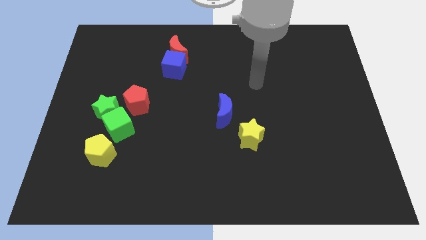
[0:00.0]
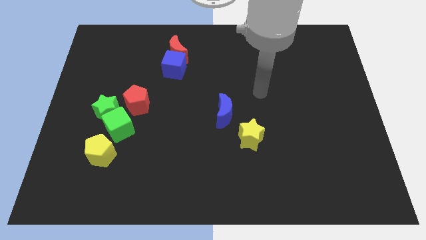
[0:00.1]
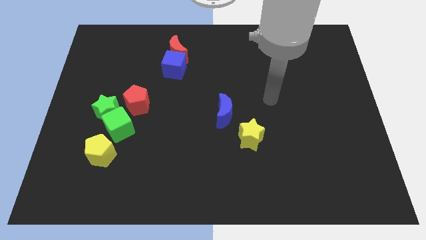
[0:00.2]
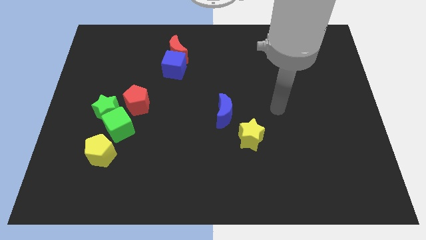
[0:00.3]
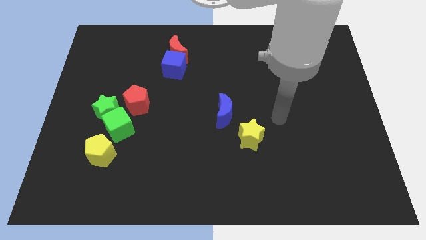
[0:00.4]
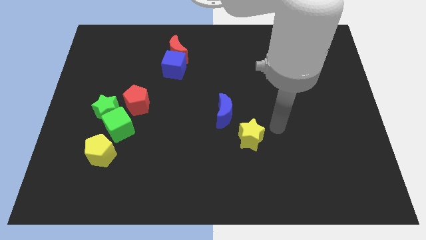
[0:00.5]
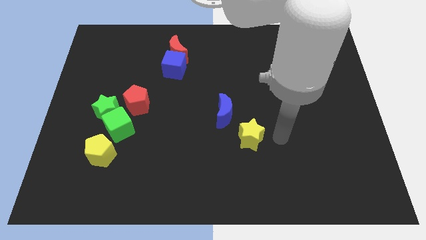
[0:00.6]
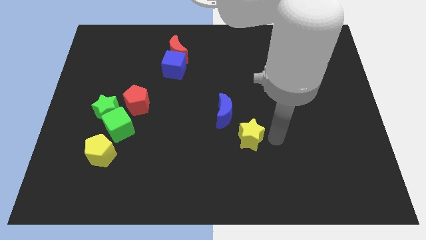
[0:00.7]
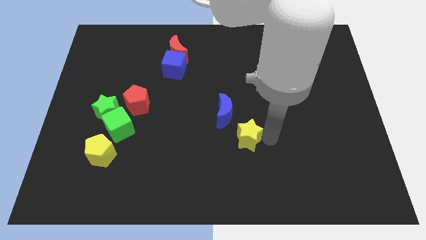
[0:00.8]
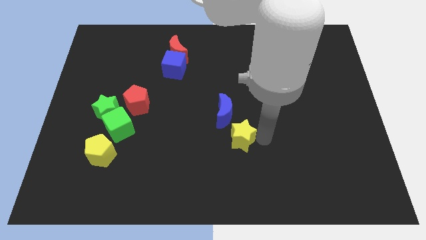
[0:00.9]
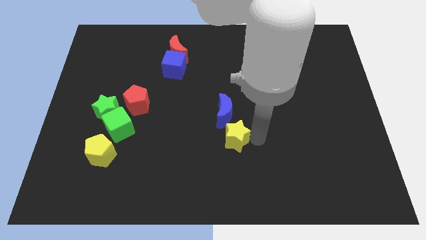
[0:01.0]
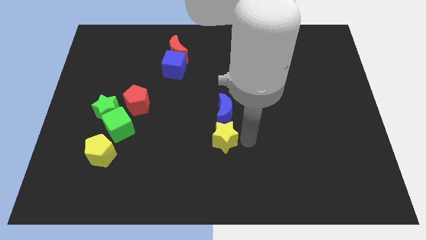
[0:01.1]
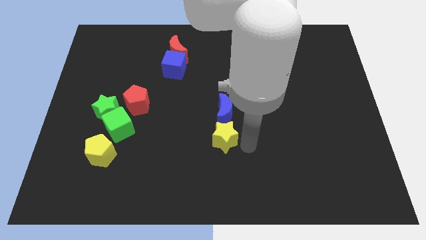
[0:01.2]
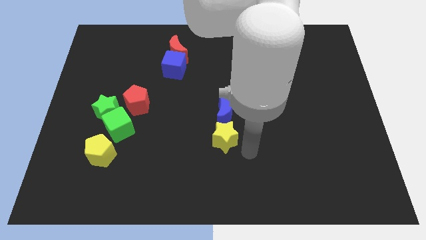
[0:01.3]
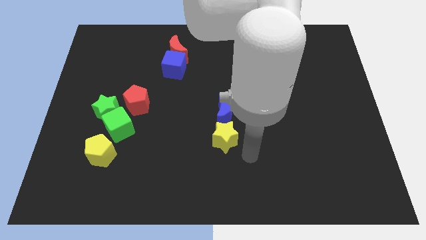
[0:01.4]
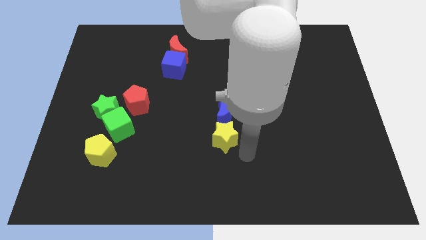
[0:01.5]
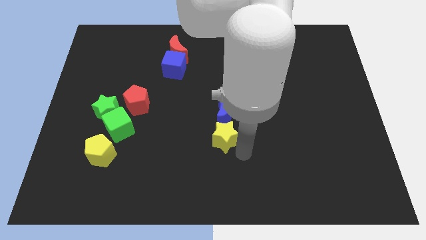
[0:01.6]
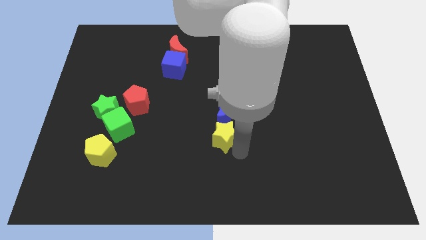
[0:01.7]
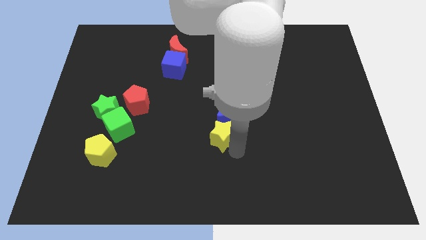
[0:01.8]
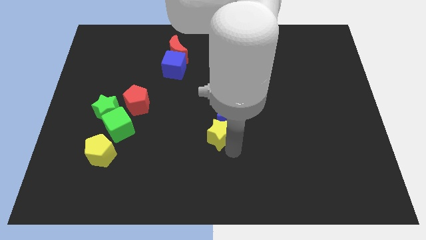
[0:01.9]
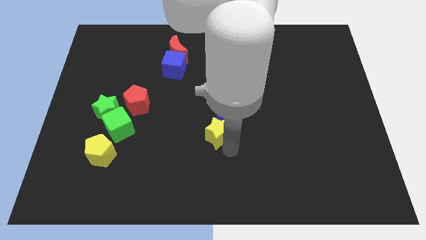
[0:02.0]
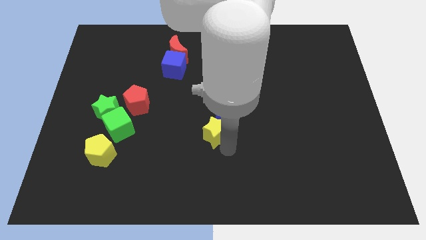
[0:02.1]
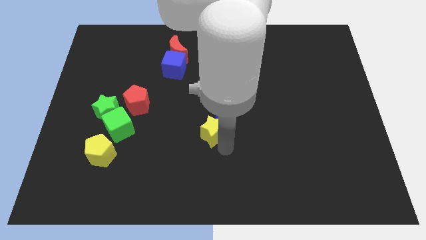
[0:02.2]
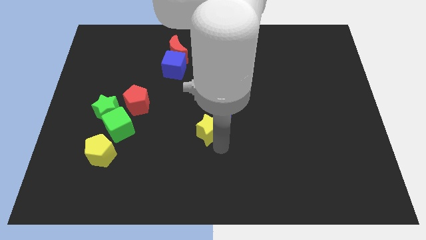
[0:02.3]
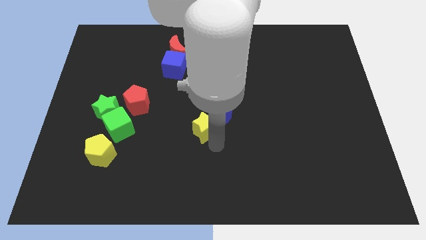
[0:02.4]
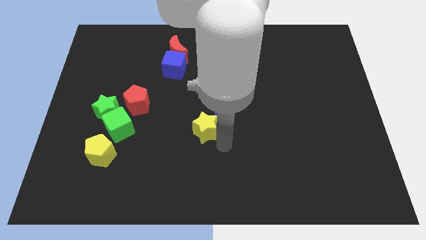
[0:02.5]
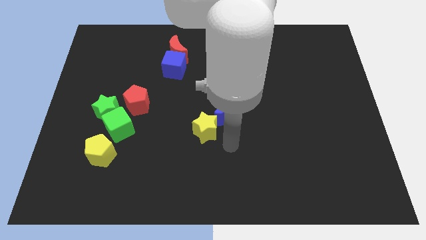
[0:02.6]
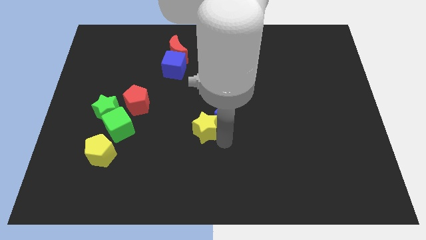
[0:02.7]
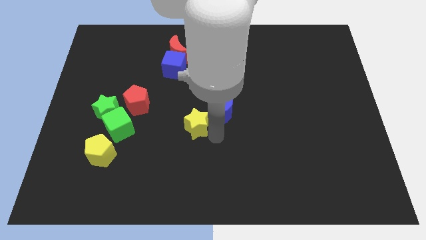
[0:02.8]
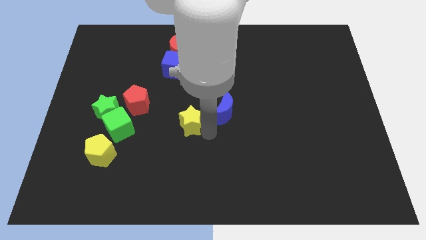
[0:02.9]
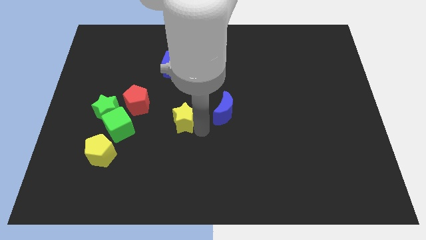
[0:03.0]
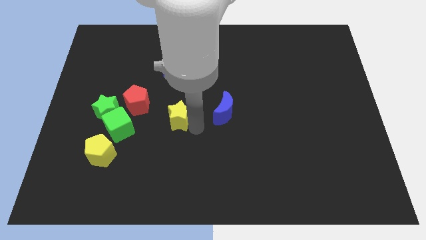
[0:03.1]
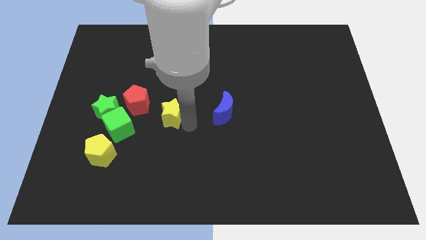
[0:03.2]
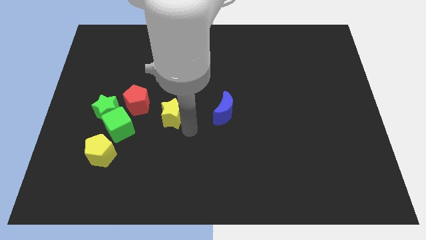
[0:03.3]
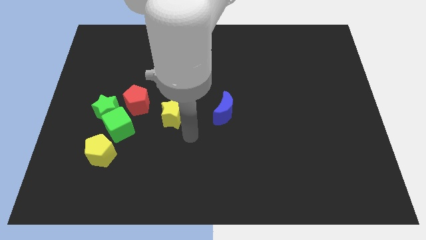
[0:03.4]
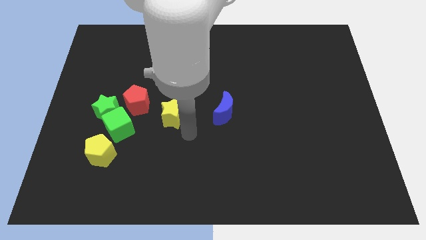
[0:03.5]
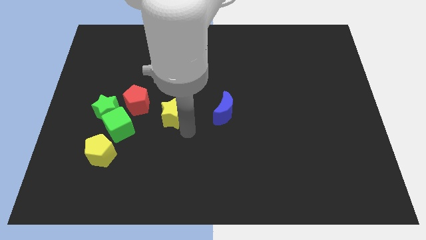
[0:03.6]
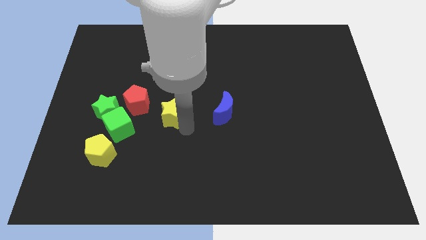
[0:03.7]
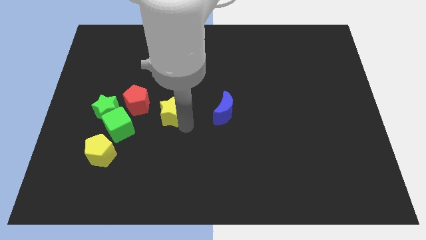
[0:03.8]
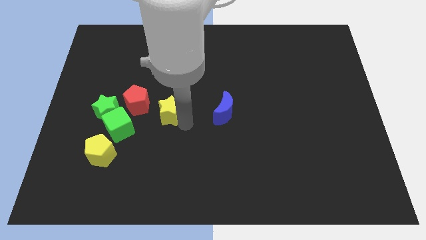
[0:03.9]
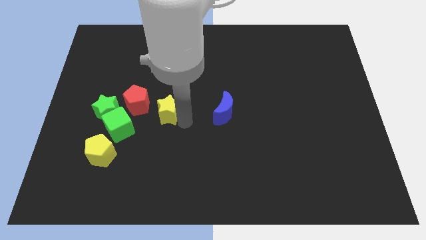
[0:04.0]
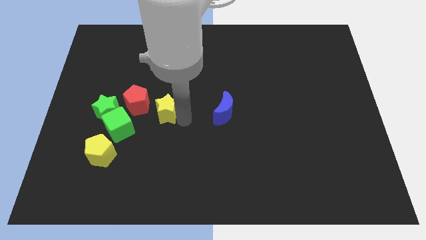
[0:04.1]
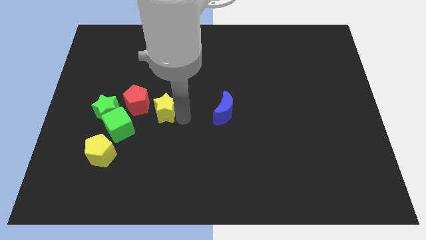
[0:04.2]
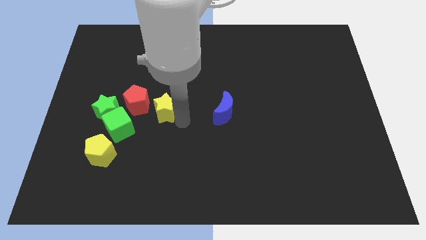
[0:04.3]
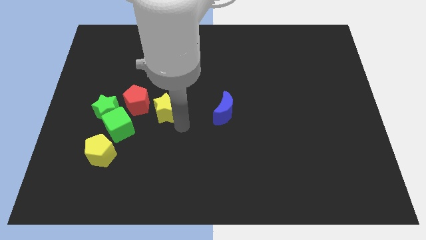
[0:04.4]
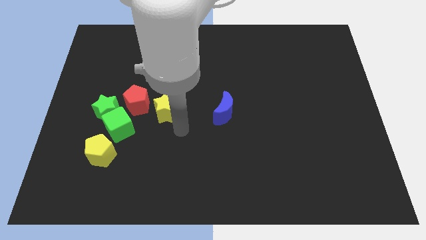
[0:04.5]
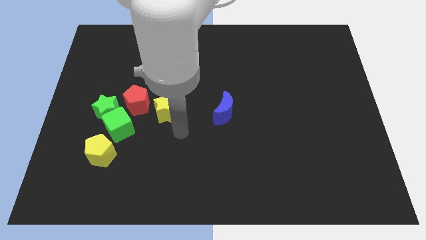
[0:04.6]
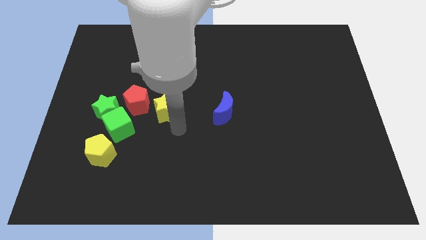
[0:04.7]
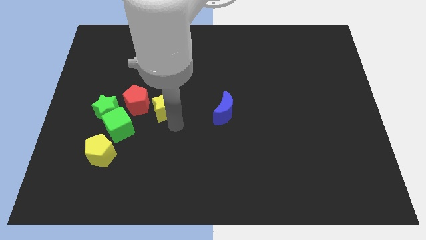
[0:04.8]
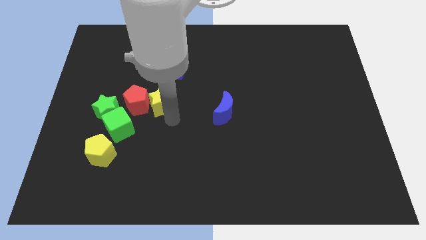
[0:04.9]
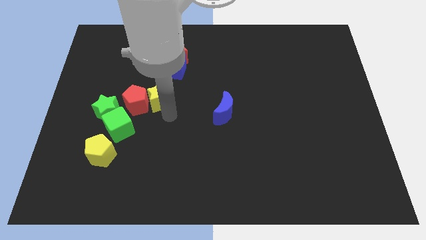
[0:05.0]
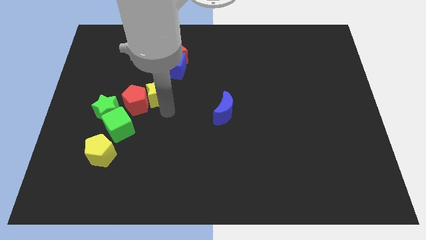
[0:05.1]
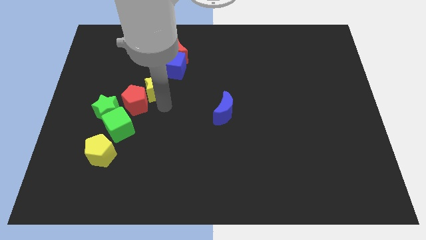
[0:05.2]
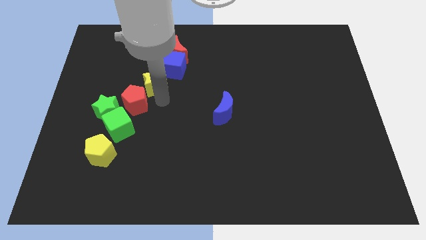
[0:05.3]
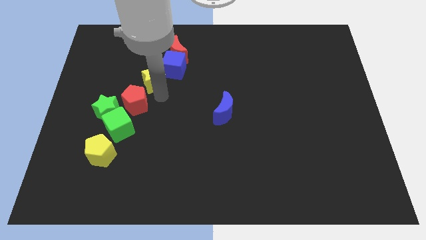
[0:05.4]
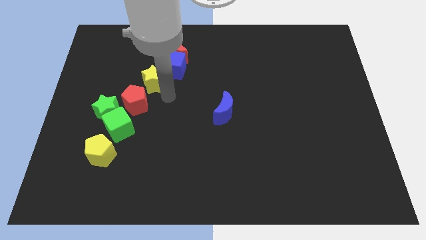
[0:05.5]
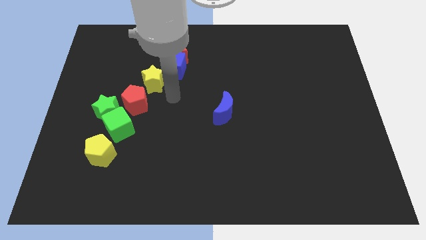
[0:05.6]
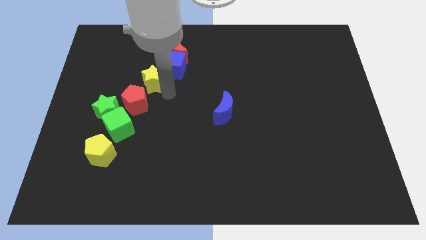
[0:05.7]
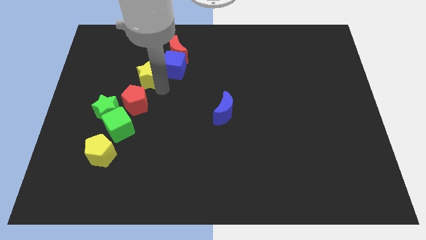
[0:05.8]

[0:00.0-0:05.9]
push the yellow star left of the blue cube
